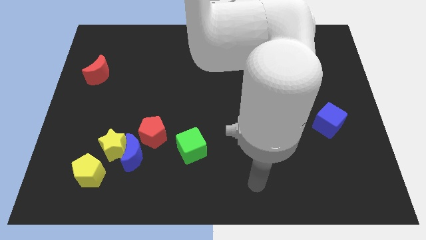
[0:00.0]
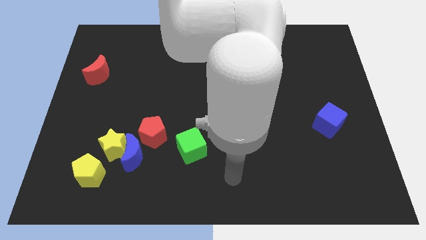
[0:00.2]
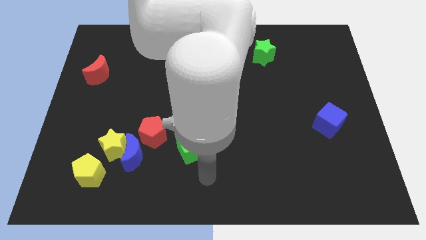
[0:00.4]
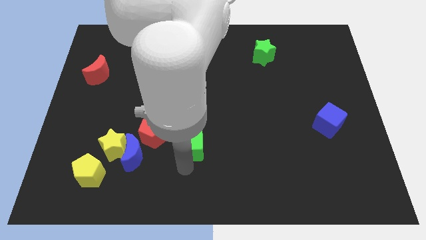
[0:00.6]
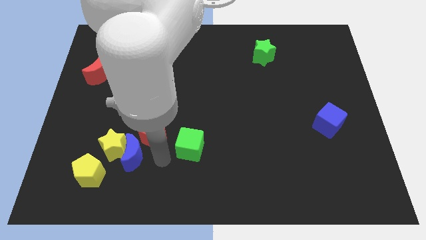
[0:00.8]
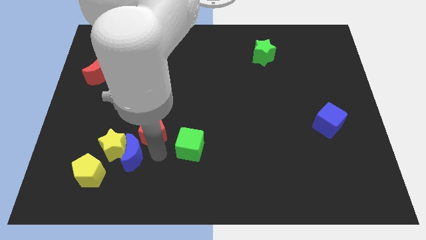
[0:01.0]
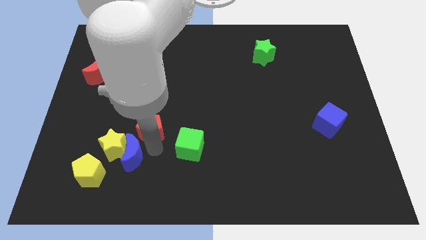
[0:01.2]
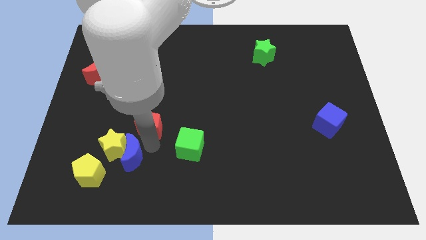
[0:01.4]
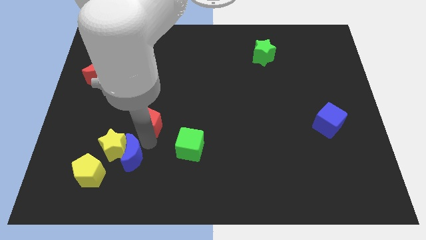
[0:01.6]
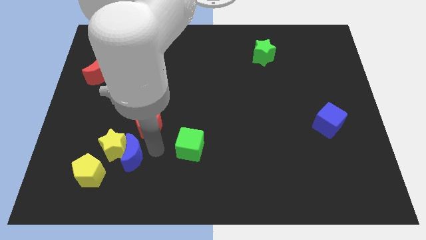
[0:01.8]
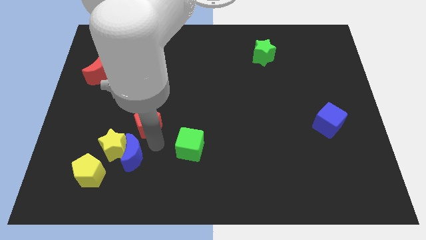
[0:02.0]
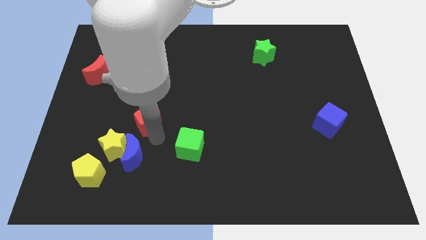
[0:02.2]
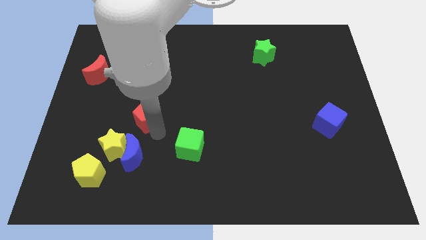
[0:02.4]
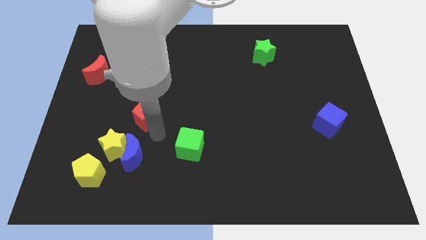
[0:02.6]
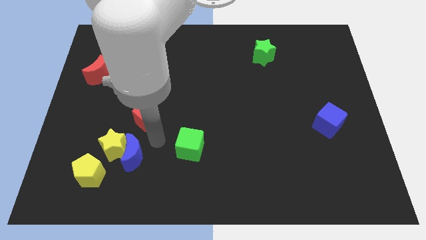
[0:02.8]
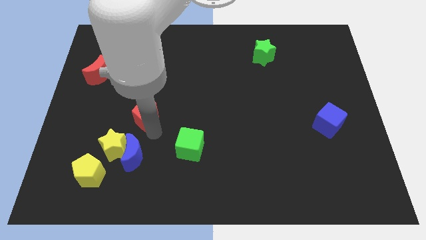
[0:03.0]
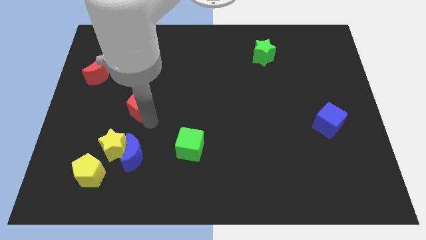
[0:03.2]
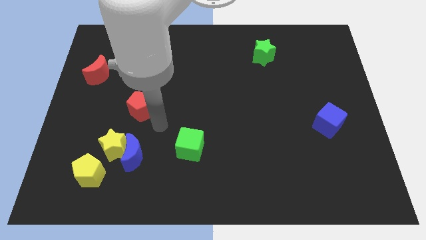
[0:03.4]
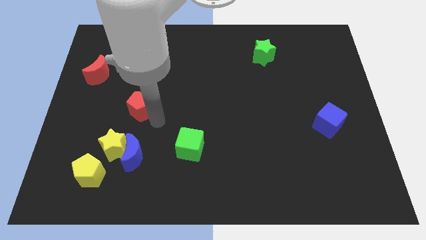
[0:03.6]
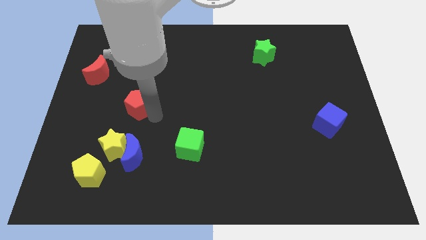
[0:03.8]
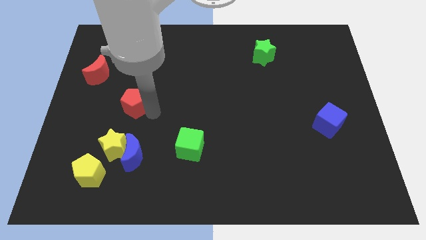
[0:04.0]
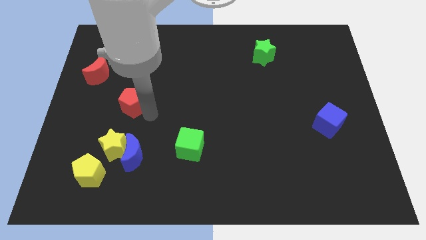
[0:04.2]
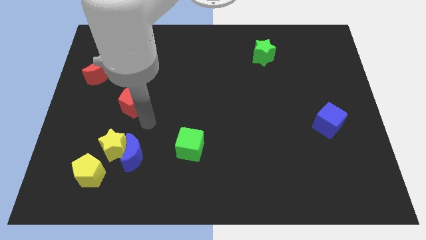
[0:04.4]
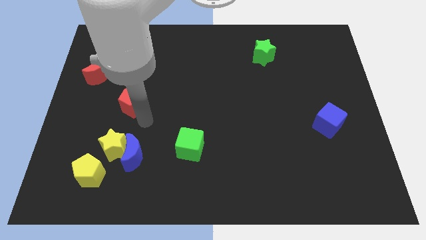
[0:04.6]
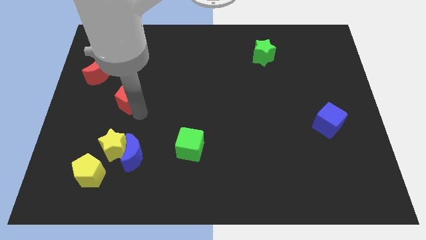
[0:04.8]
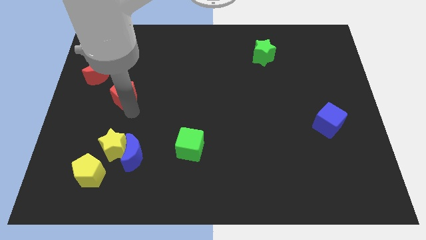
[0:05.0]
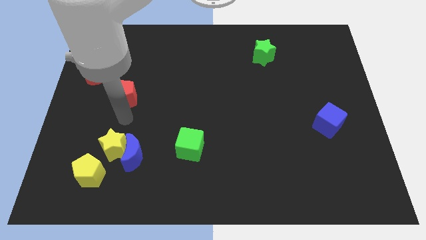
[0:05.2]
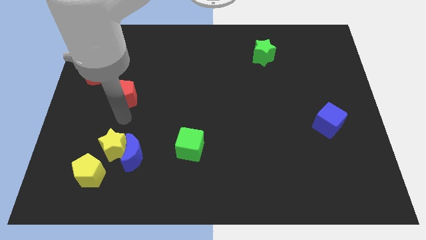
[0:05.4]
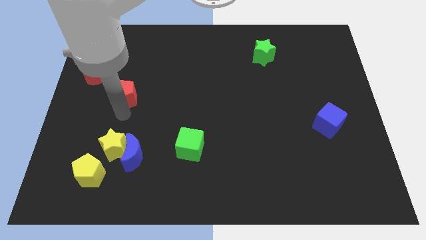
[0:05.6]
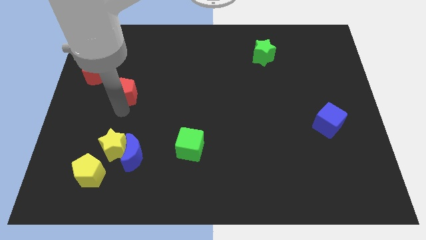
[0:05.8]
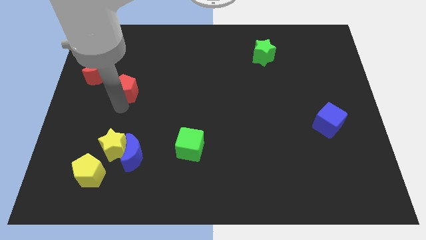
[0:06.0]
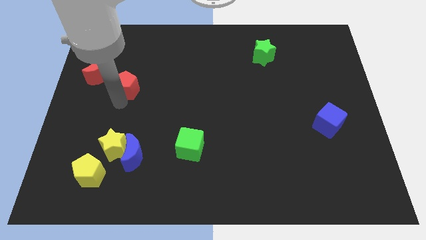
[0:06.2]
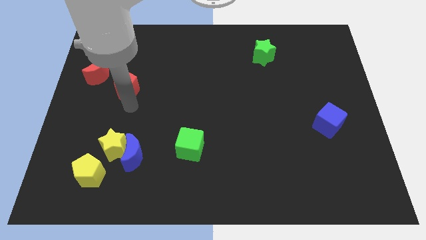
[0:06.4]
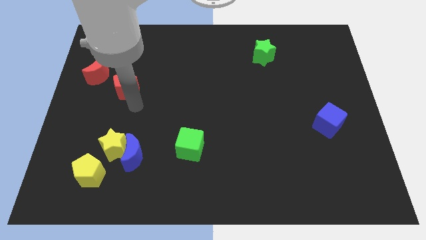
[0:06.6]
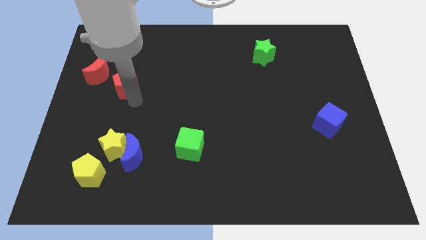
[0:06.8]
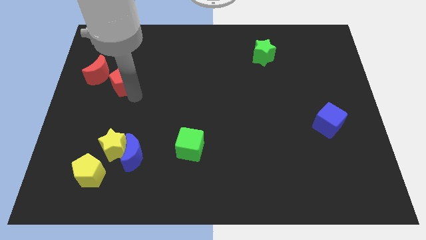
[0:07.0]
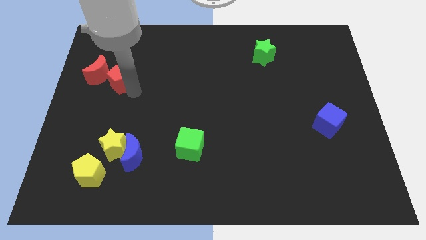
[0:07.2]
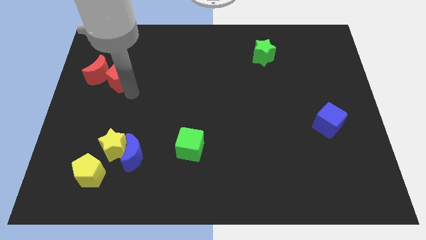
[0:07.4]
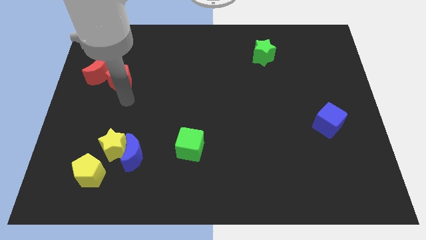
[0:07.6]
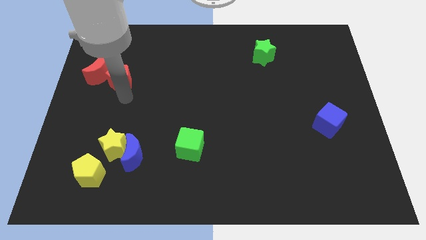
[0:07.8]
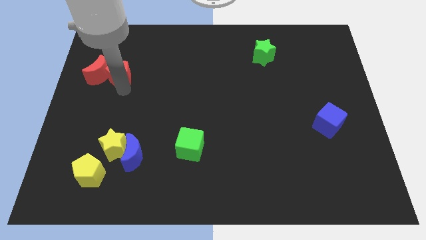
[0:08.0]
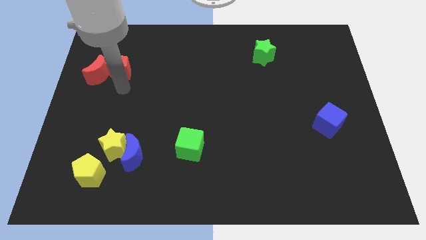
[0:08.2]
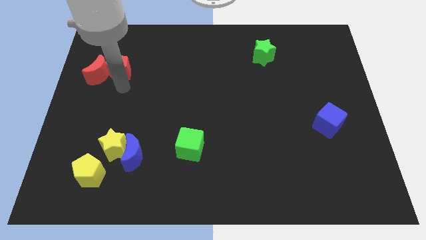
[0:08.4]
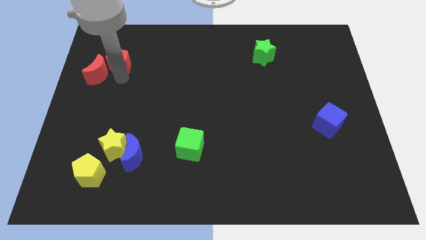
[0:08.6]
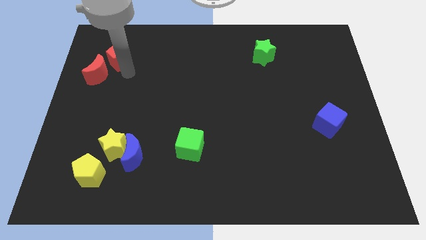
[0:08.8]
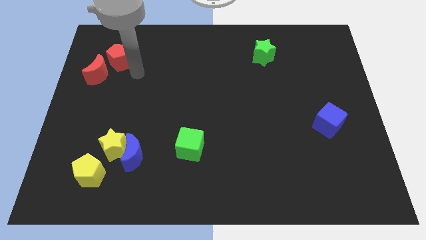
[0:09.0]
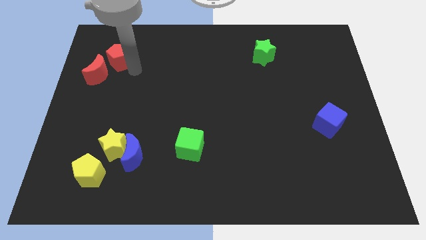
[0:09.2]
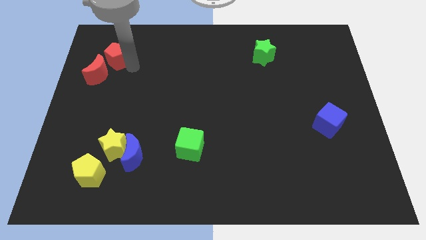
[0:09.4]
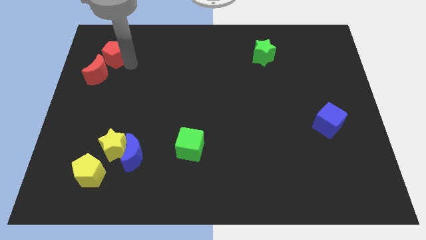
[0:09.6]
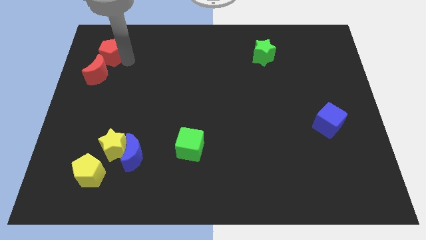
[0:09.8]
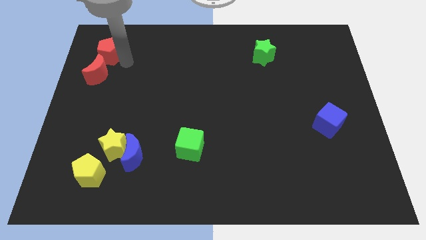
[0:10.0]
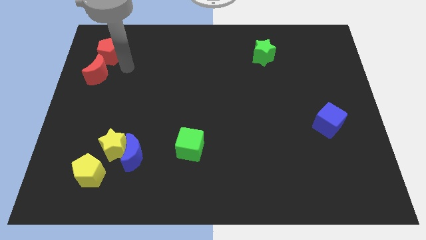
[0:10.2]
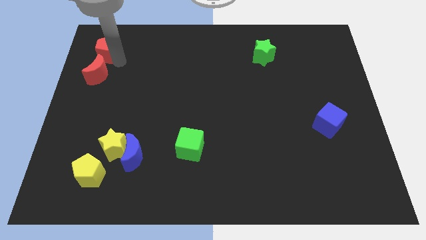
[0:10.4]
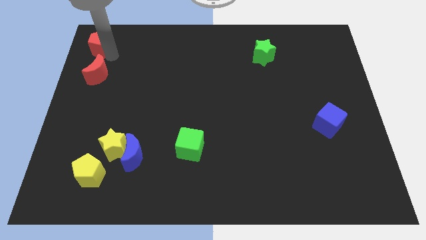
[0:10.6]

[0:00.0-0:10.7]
slide the red pentagon to the upper left corner
